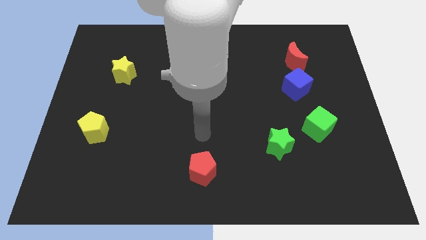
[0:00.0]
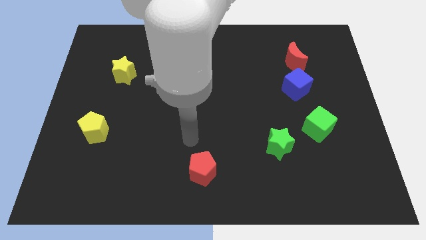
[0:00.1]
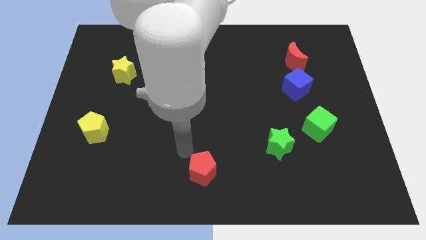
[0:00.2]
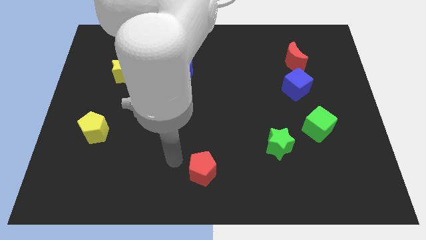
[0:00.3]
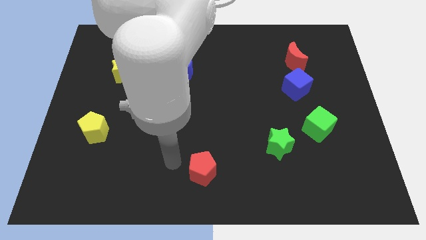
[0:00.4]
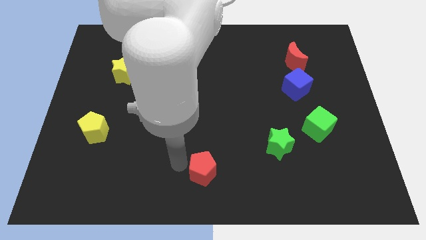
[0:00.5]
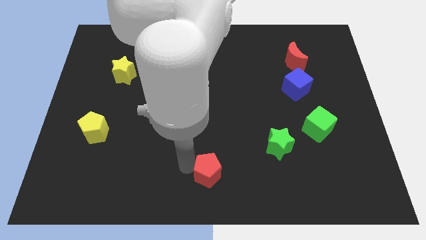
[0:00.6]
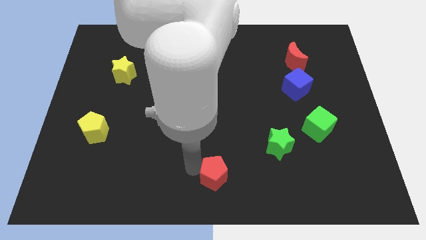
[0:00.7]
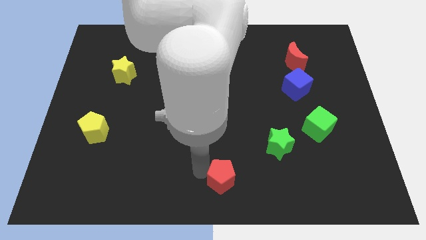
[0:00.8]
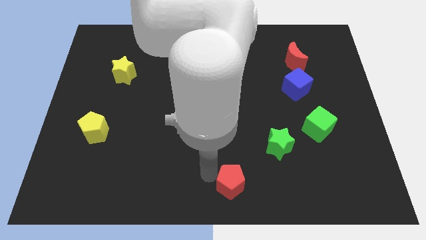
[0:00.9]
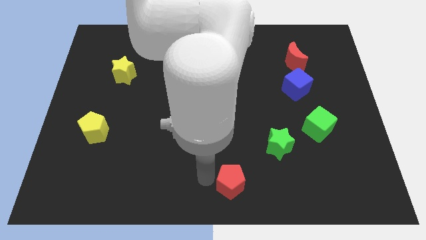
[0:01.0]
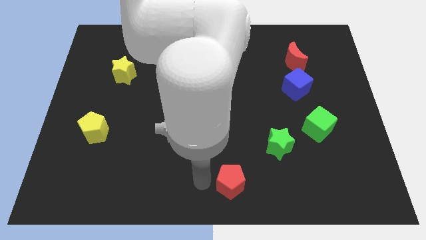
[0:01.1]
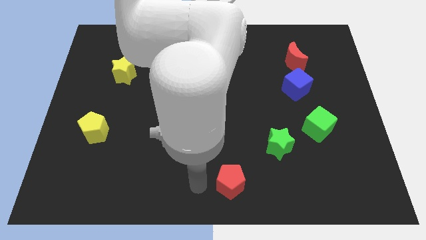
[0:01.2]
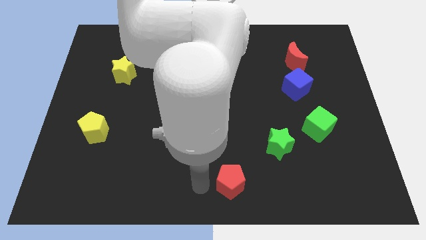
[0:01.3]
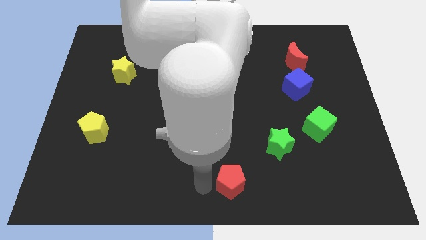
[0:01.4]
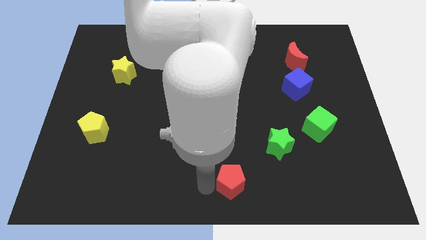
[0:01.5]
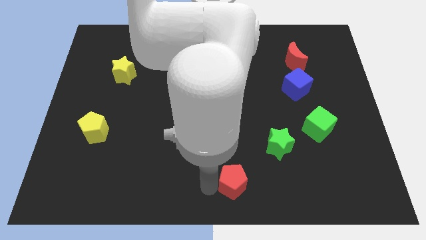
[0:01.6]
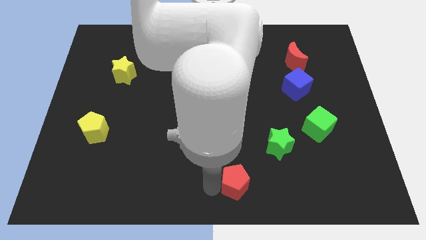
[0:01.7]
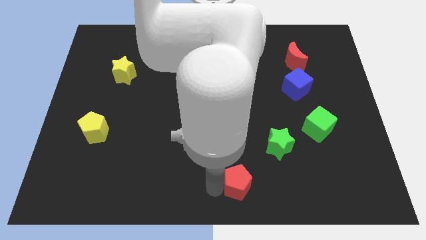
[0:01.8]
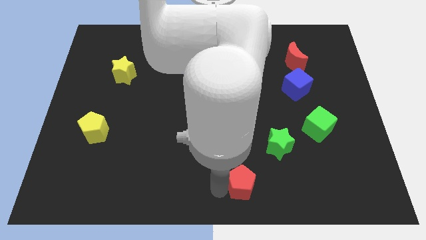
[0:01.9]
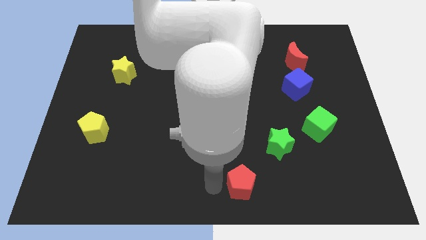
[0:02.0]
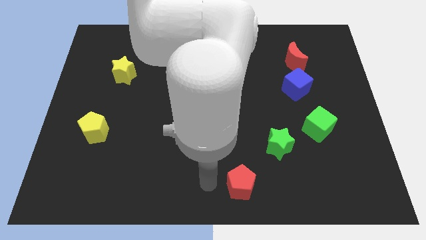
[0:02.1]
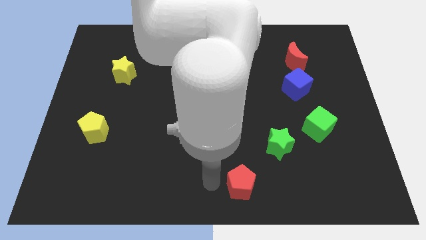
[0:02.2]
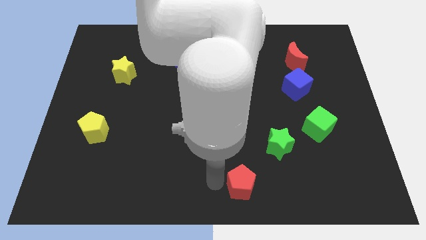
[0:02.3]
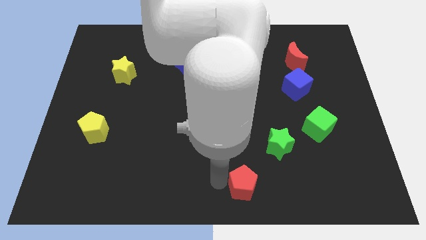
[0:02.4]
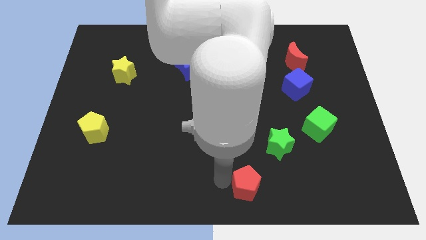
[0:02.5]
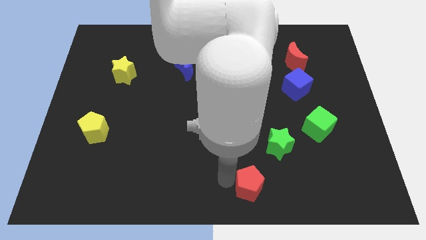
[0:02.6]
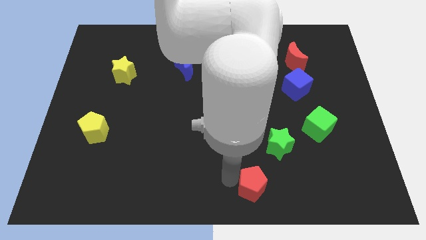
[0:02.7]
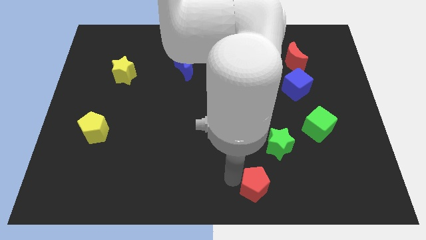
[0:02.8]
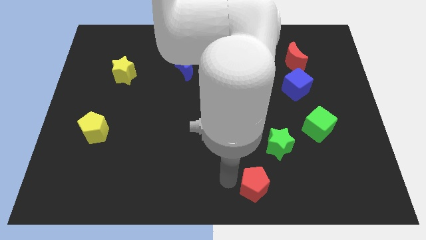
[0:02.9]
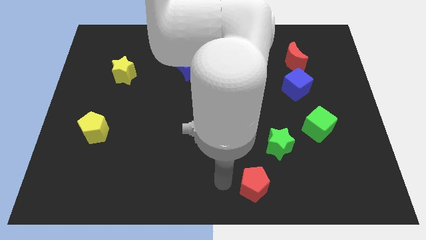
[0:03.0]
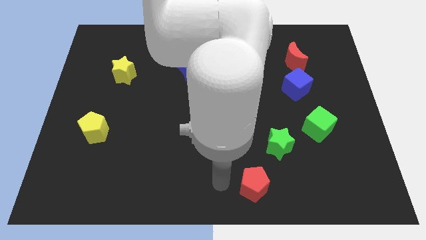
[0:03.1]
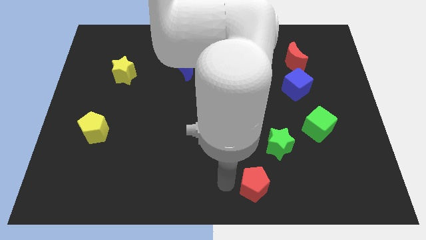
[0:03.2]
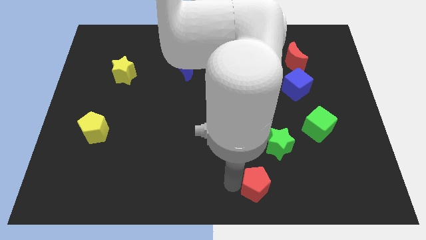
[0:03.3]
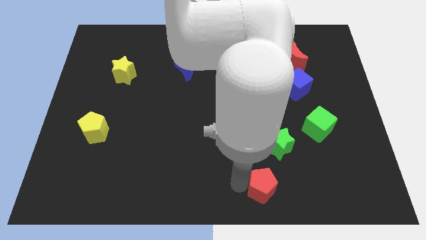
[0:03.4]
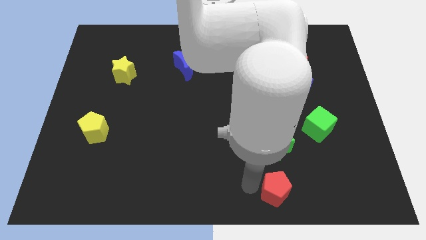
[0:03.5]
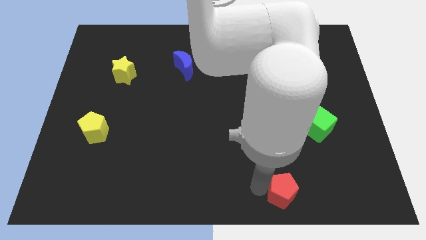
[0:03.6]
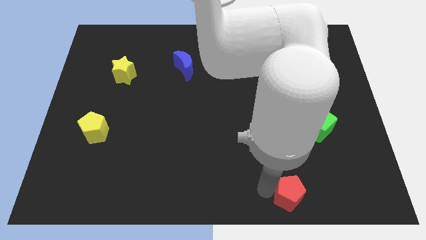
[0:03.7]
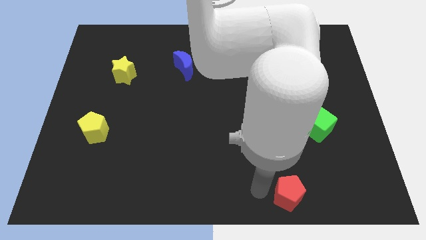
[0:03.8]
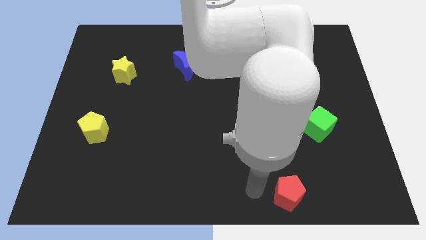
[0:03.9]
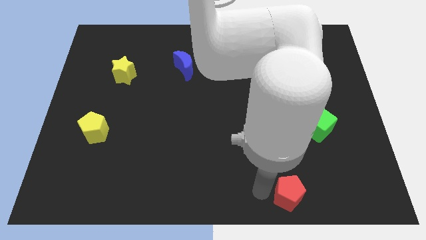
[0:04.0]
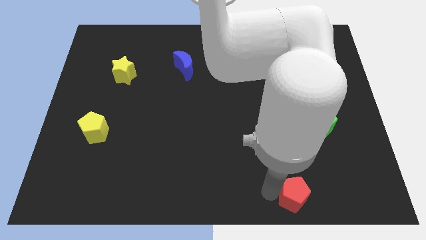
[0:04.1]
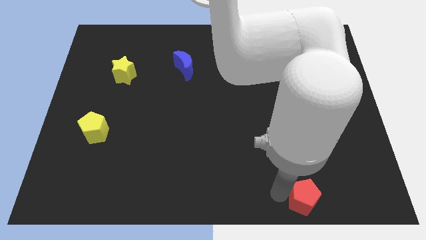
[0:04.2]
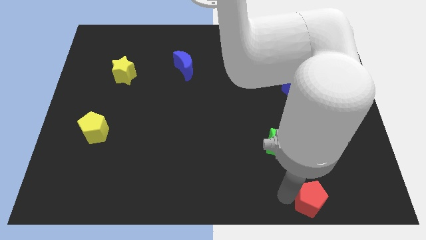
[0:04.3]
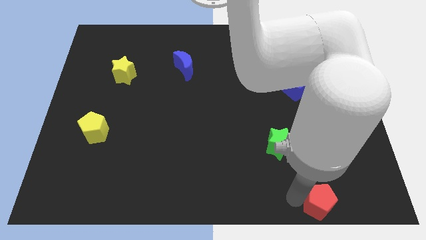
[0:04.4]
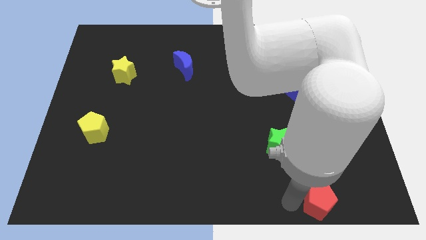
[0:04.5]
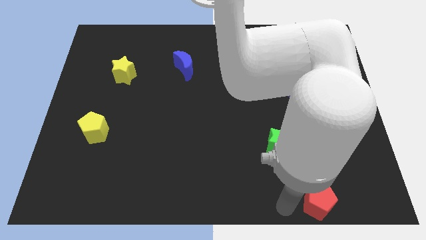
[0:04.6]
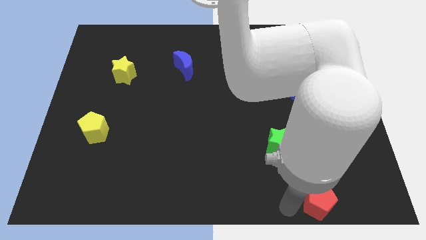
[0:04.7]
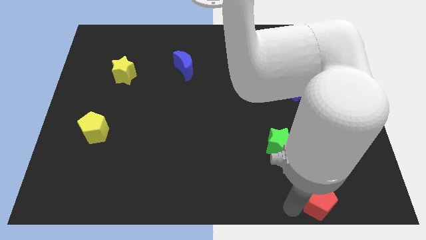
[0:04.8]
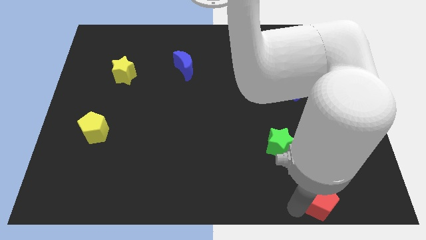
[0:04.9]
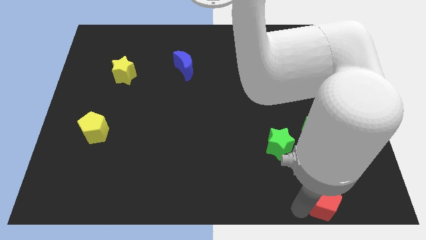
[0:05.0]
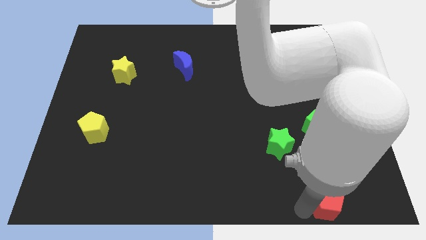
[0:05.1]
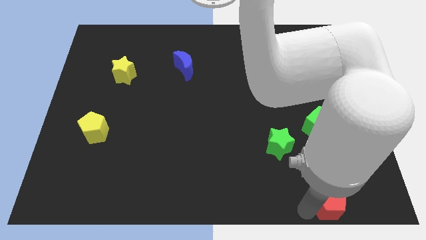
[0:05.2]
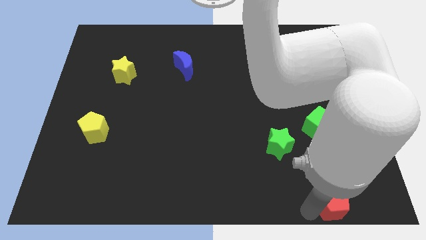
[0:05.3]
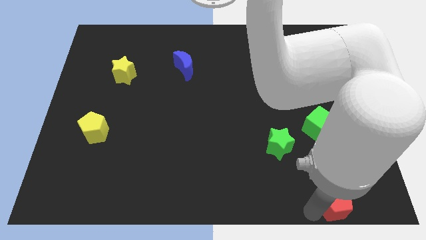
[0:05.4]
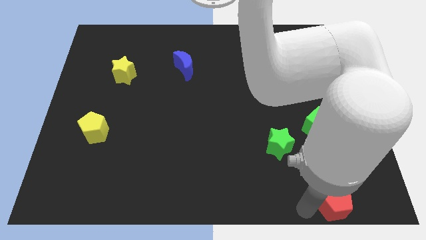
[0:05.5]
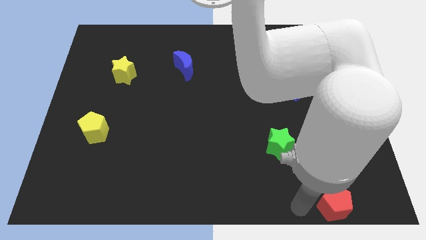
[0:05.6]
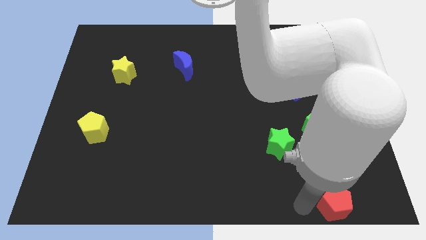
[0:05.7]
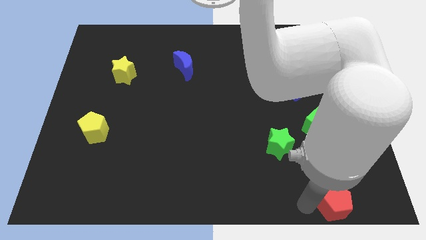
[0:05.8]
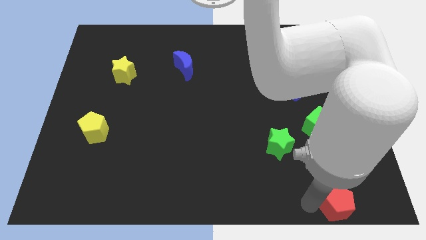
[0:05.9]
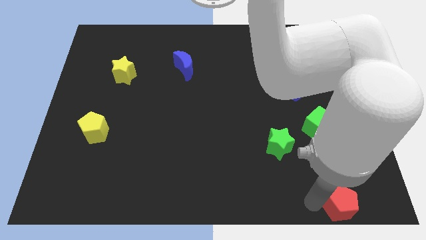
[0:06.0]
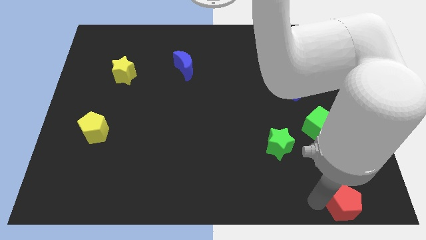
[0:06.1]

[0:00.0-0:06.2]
put the red pentagon to the bottom right corner

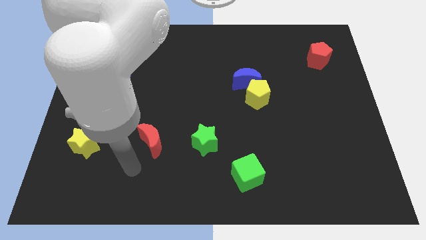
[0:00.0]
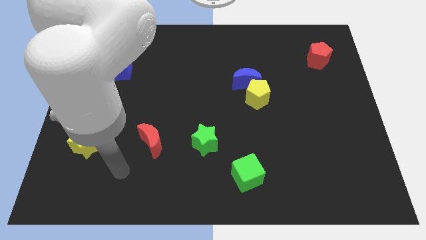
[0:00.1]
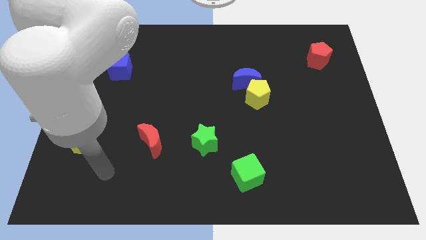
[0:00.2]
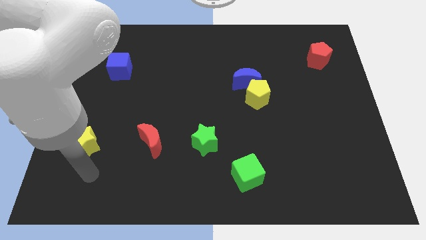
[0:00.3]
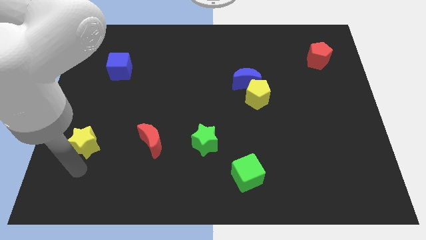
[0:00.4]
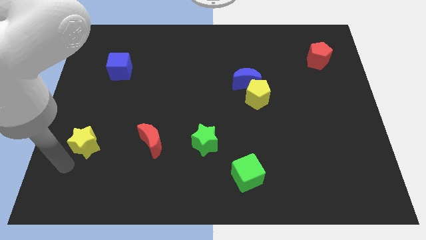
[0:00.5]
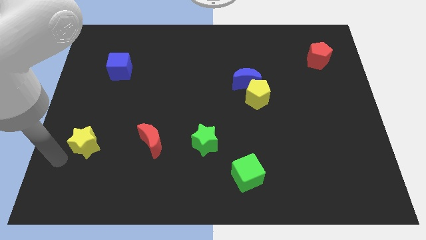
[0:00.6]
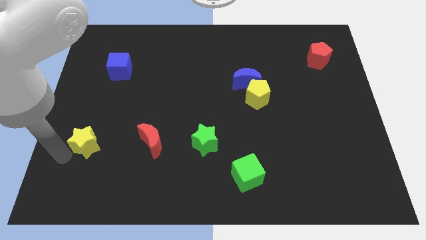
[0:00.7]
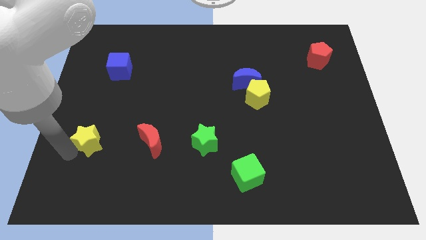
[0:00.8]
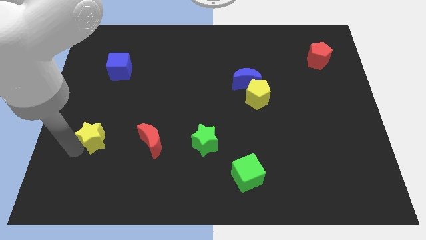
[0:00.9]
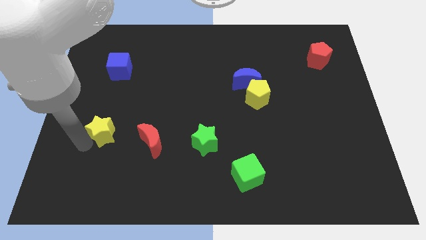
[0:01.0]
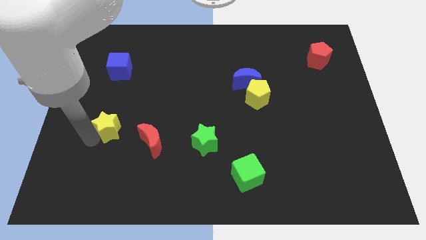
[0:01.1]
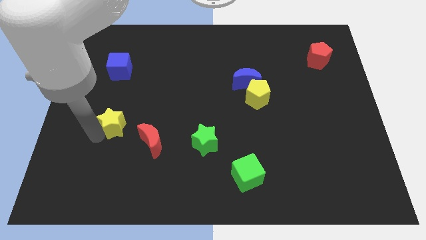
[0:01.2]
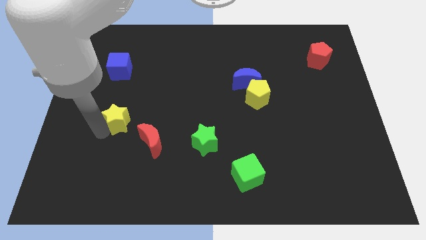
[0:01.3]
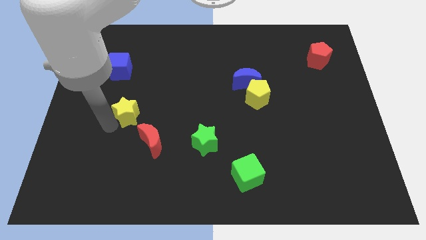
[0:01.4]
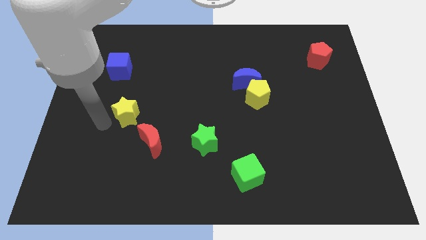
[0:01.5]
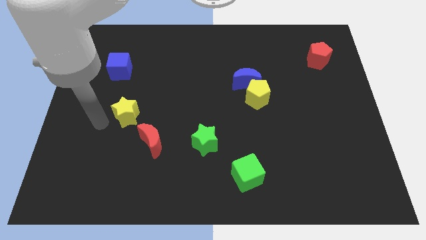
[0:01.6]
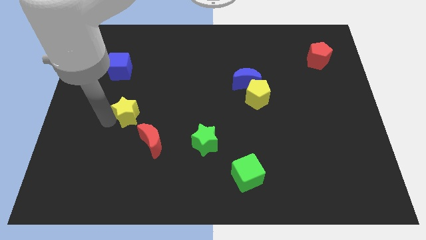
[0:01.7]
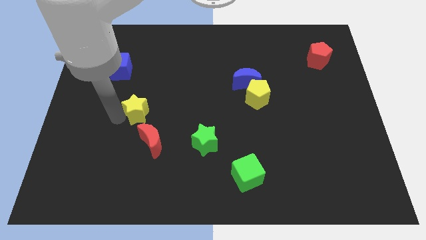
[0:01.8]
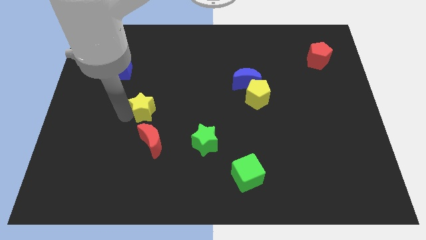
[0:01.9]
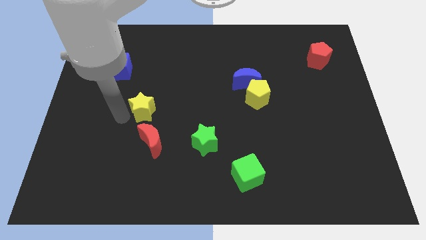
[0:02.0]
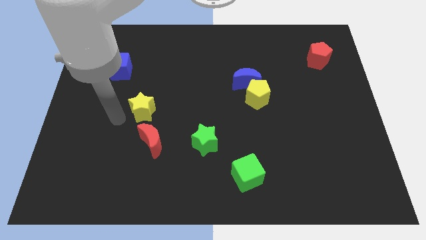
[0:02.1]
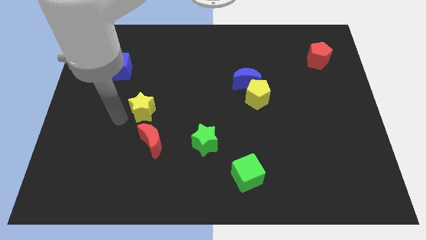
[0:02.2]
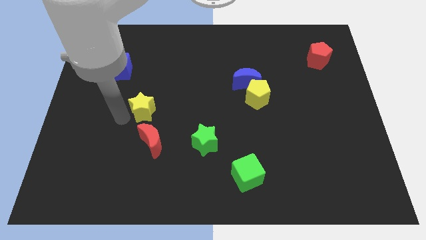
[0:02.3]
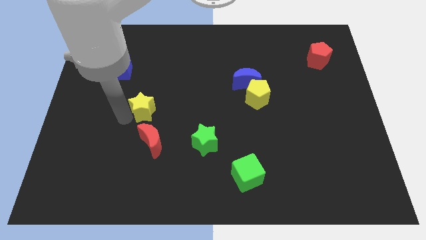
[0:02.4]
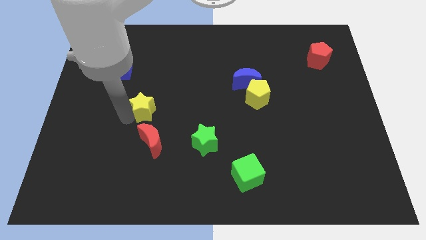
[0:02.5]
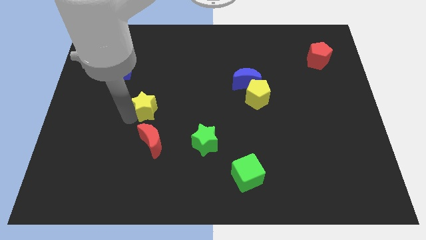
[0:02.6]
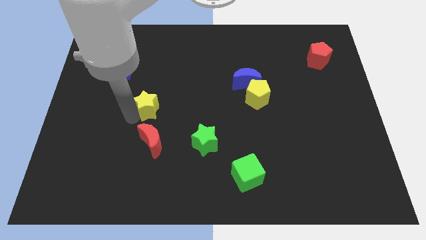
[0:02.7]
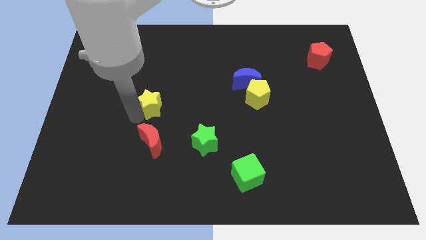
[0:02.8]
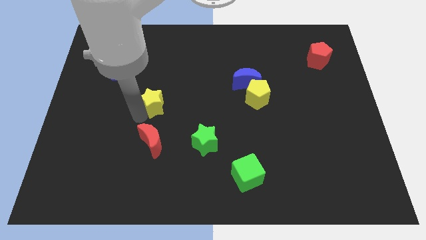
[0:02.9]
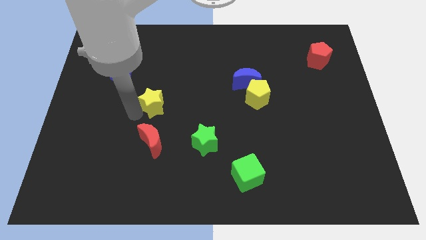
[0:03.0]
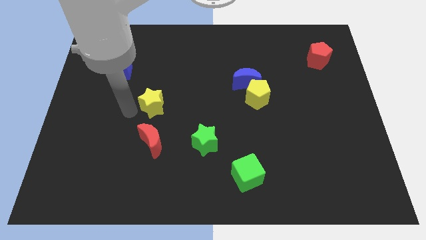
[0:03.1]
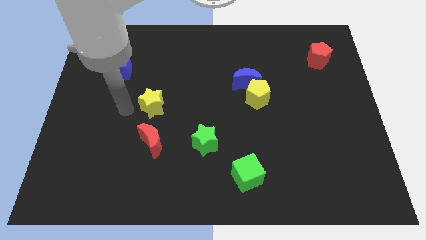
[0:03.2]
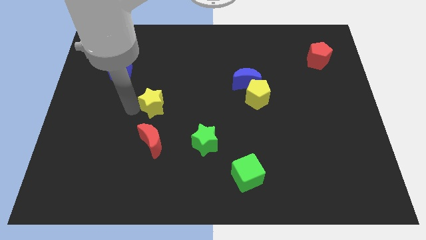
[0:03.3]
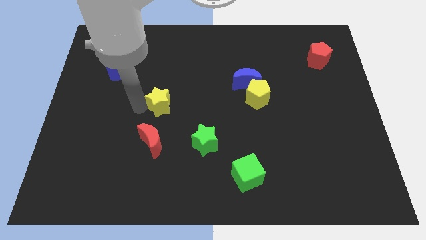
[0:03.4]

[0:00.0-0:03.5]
put the yellow star to the center of the board
